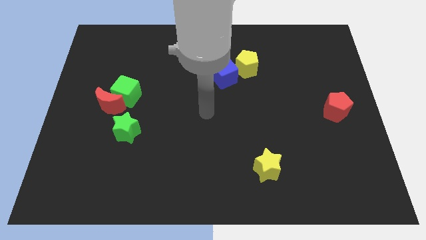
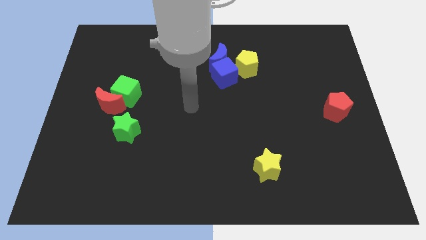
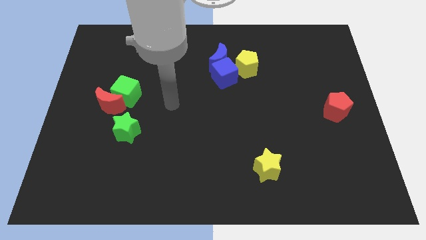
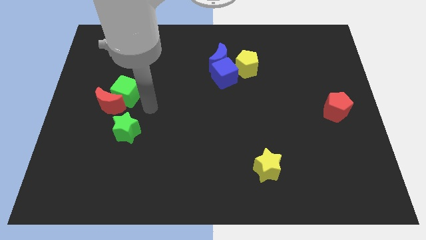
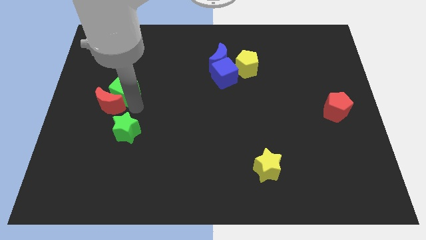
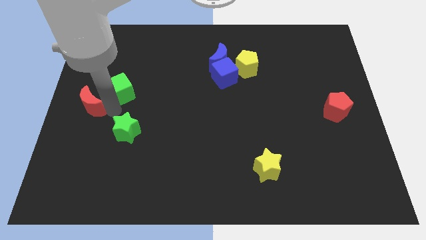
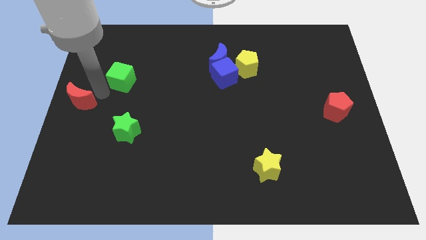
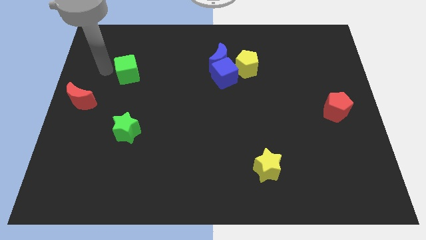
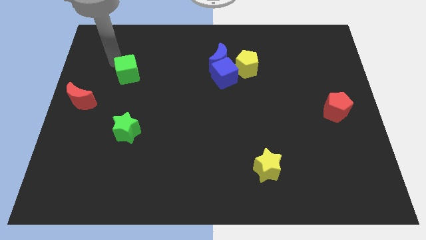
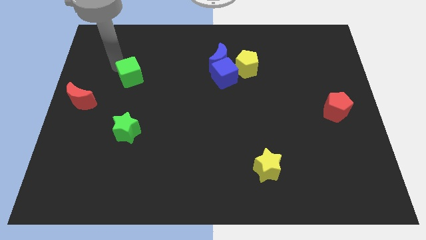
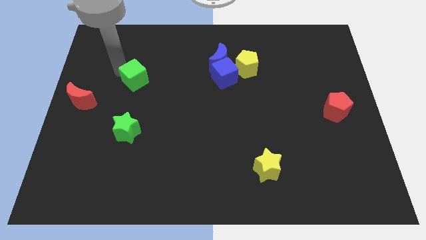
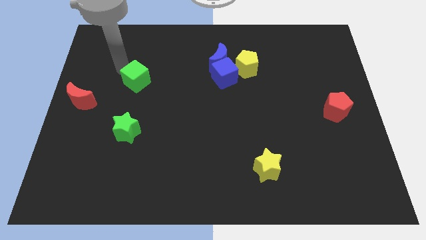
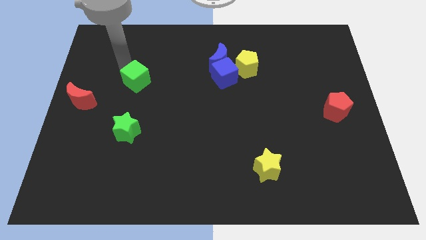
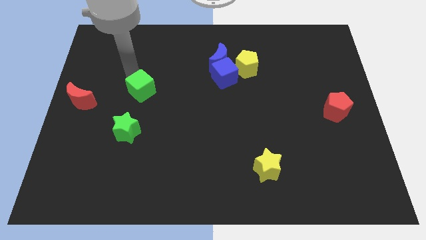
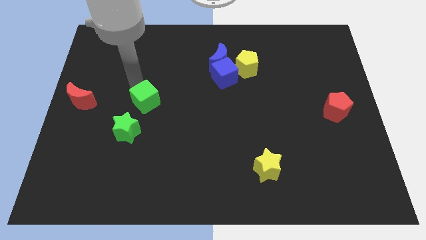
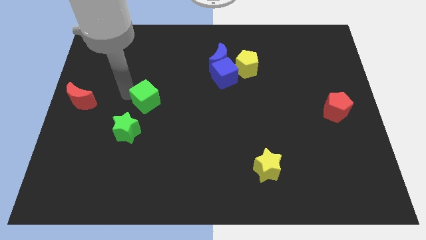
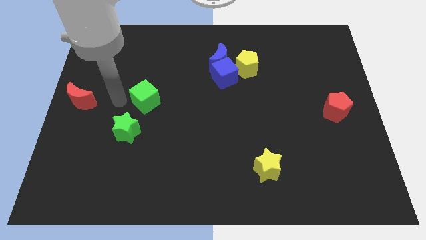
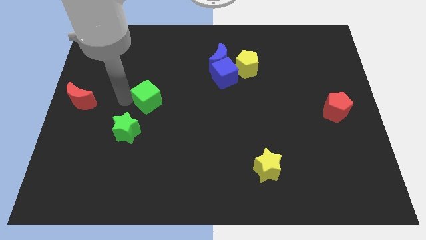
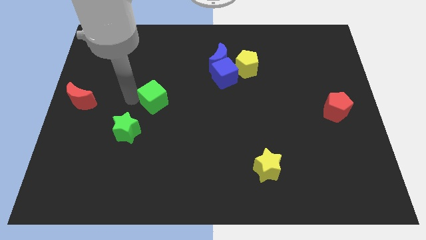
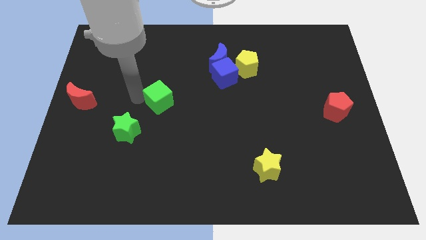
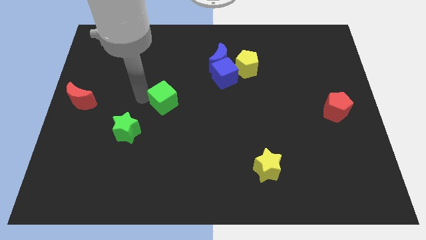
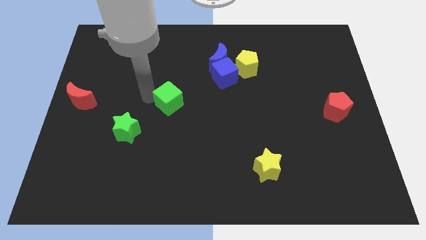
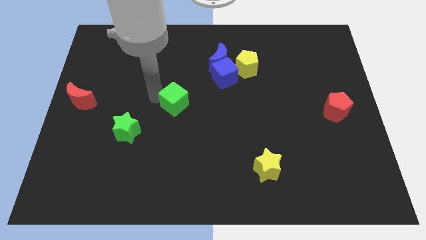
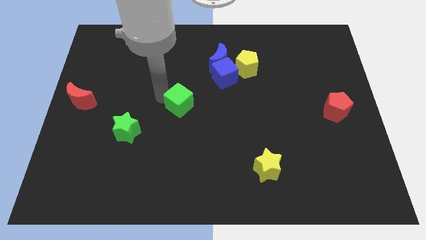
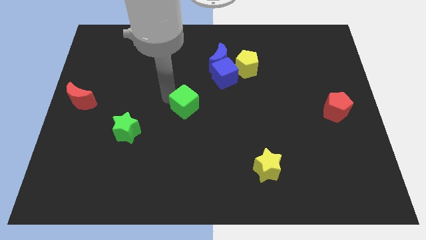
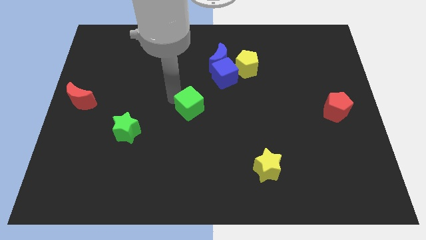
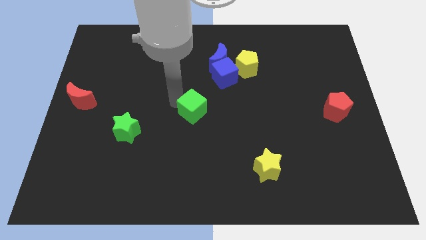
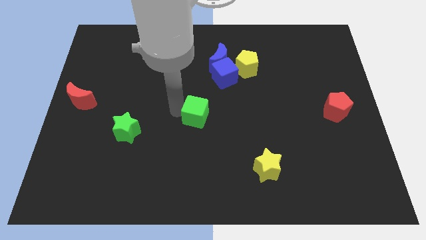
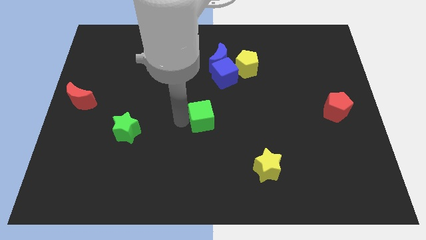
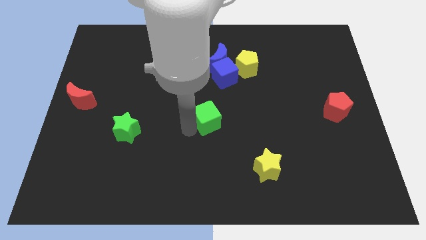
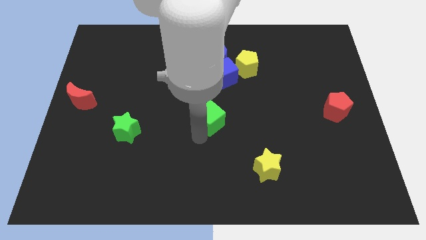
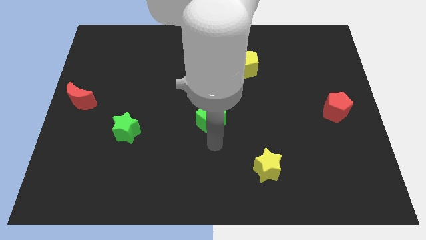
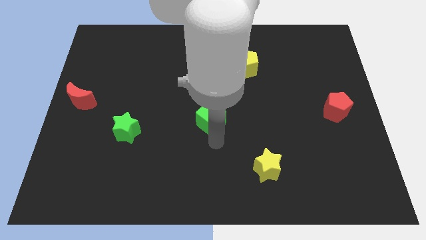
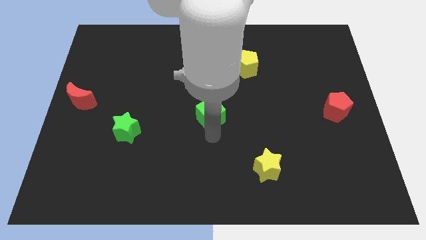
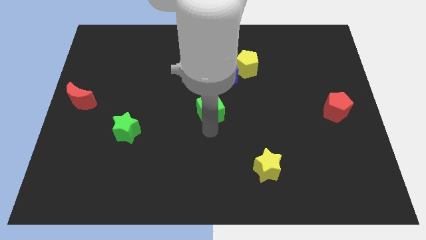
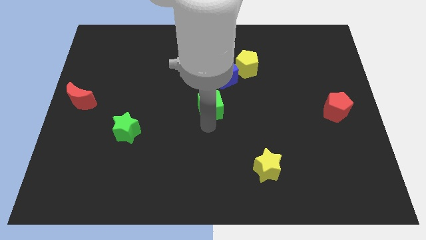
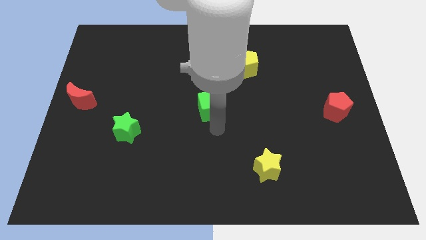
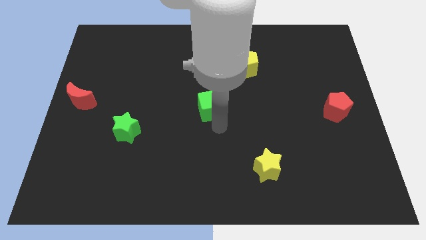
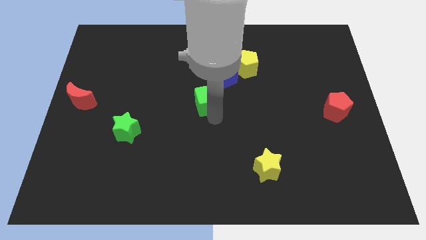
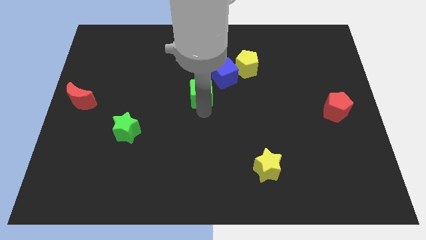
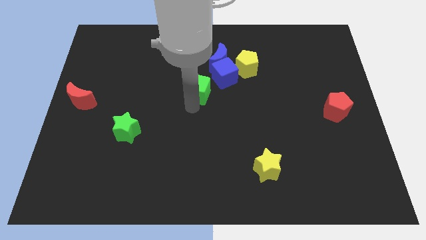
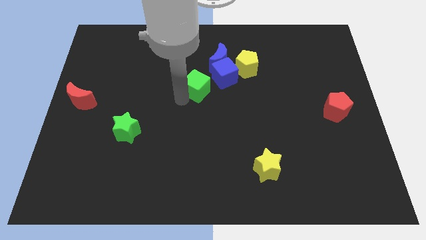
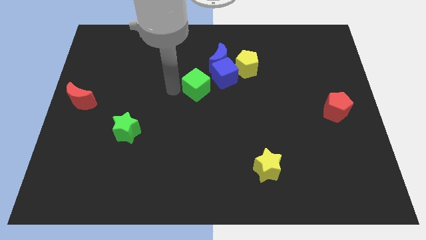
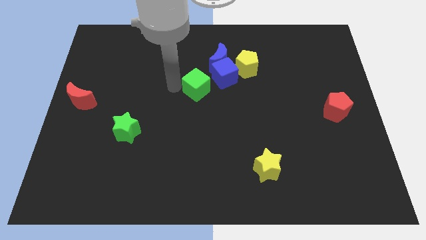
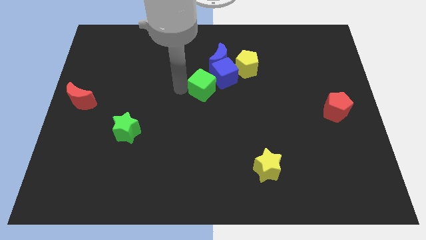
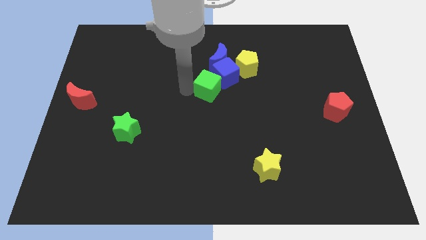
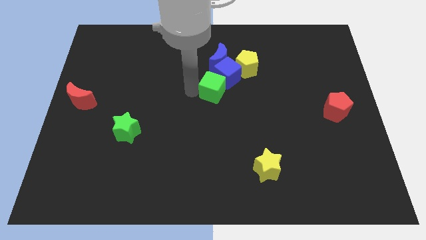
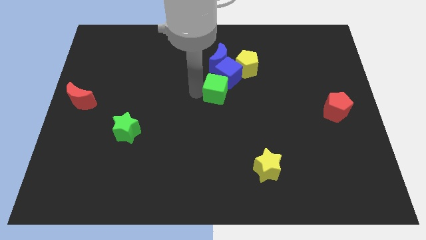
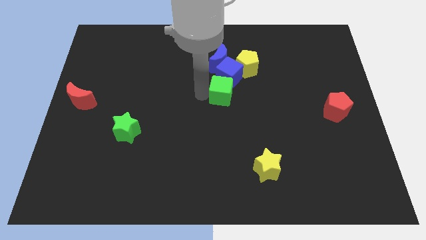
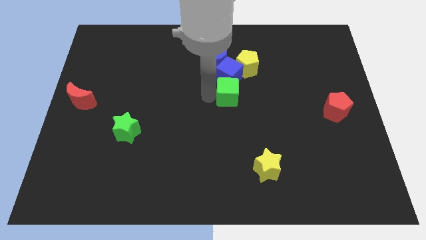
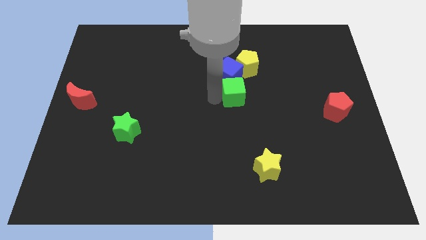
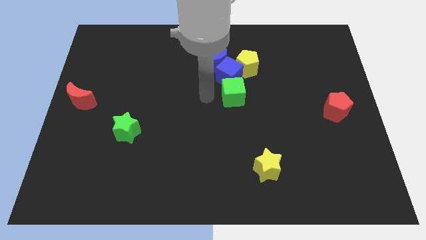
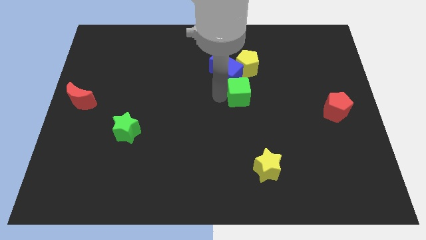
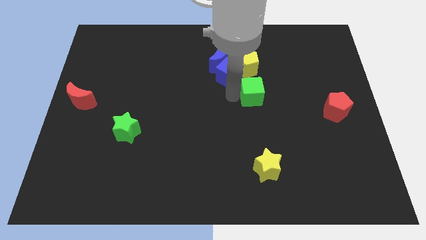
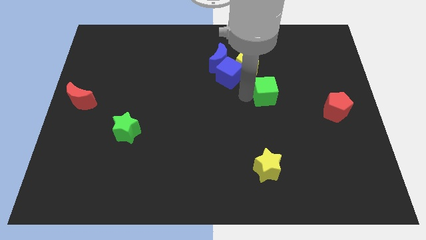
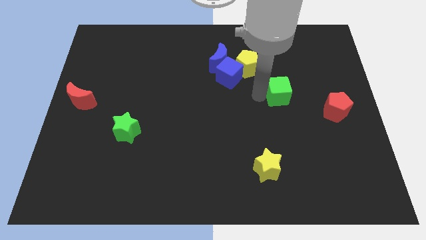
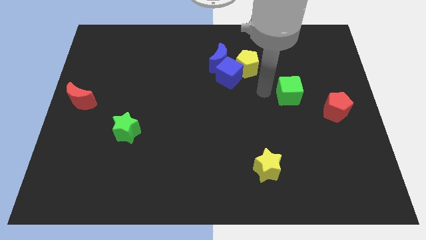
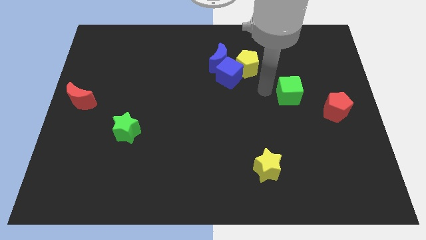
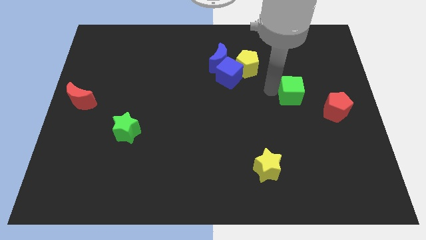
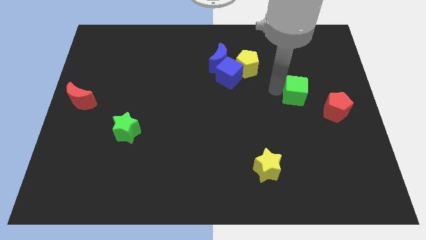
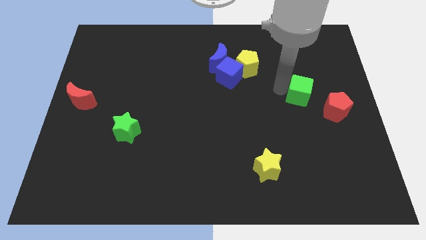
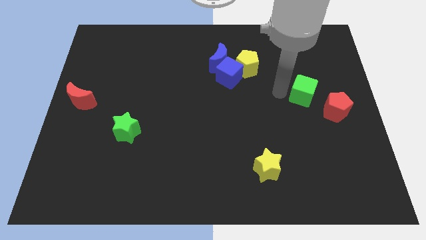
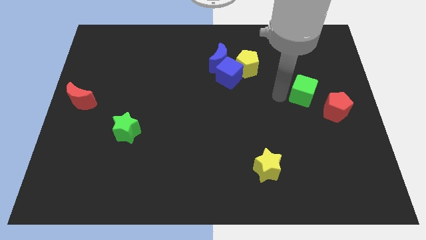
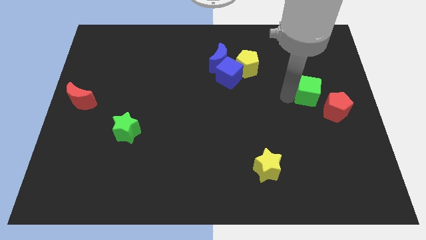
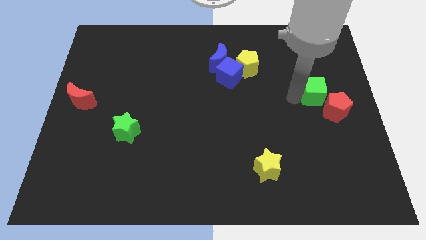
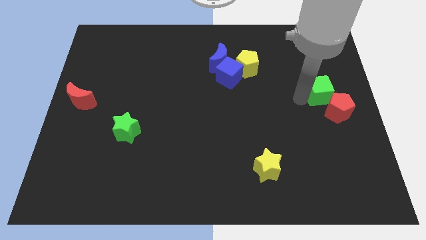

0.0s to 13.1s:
put the green cube to the center right
